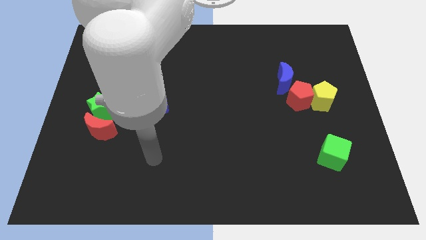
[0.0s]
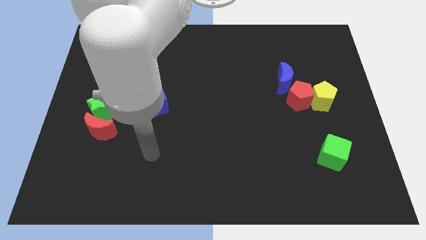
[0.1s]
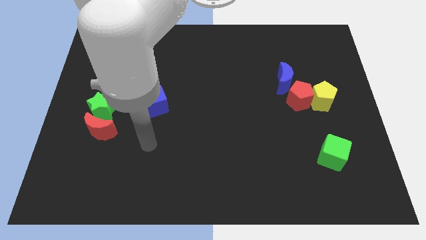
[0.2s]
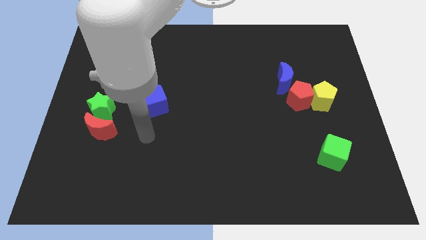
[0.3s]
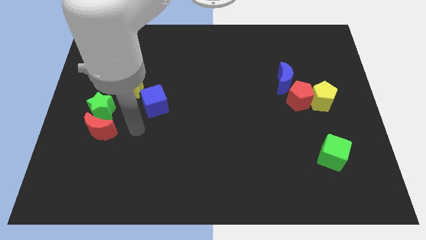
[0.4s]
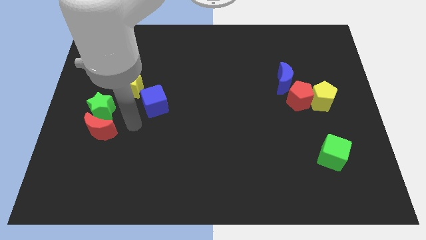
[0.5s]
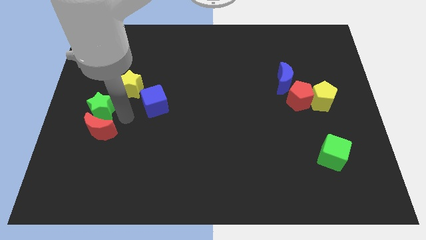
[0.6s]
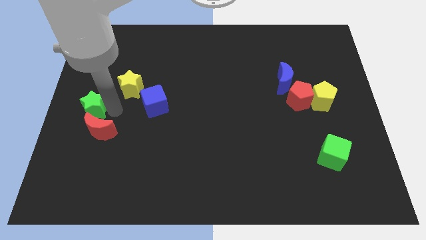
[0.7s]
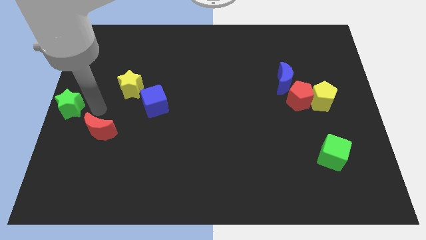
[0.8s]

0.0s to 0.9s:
pull the red moon apart from the green star

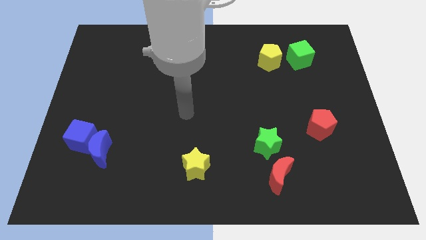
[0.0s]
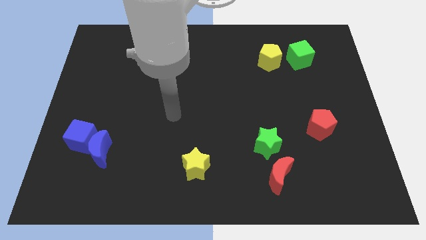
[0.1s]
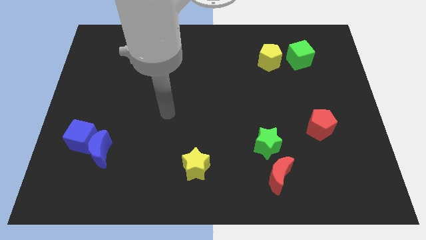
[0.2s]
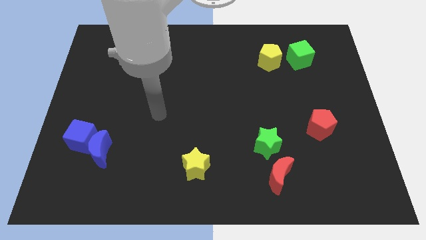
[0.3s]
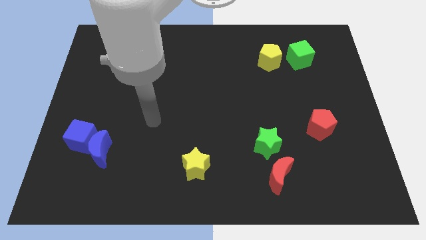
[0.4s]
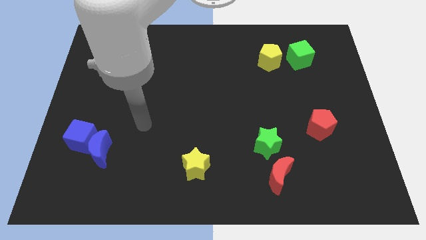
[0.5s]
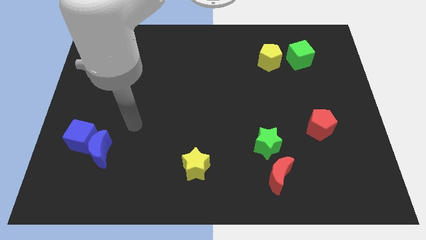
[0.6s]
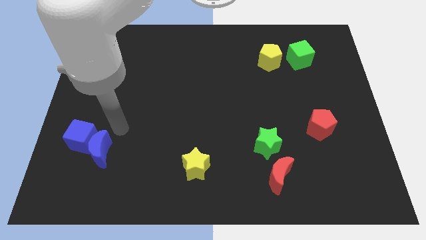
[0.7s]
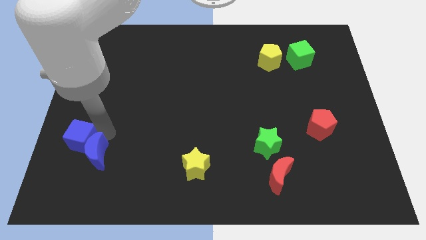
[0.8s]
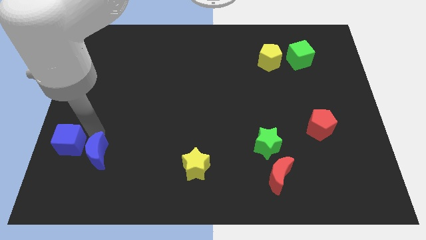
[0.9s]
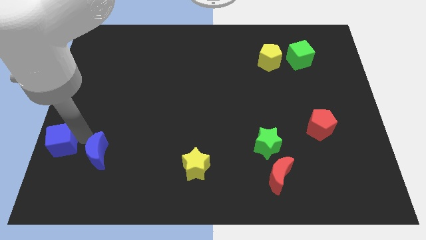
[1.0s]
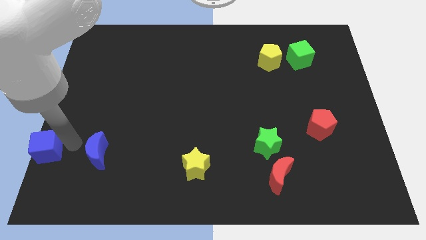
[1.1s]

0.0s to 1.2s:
separate the blue moon from the blue cube

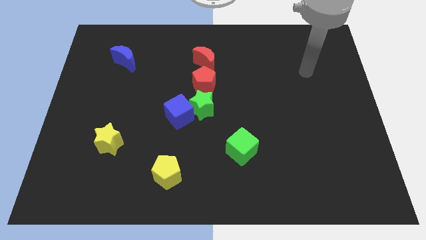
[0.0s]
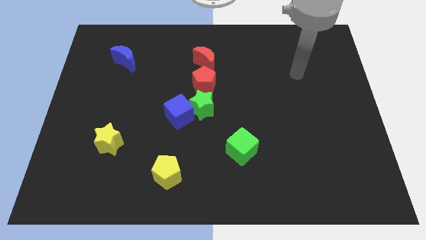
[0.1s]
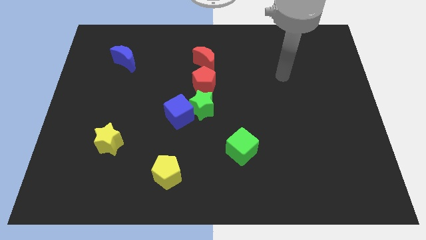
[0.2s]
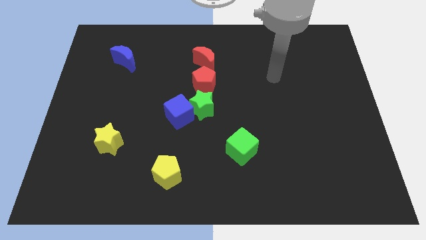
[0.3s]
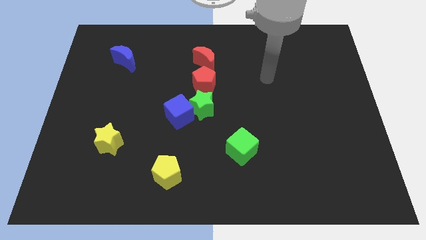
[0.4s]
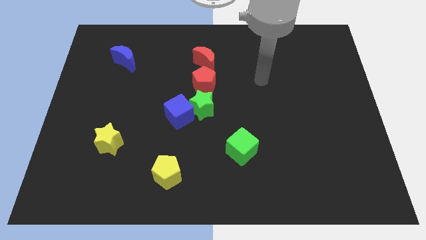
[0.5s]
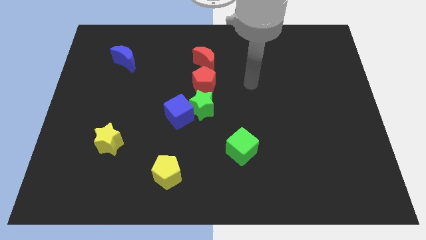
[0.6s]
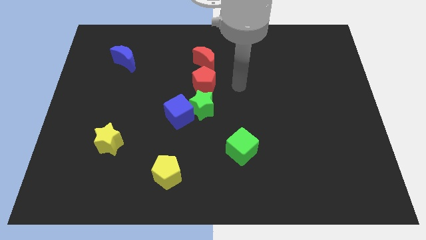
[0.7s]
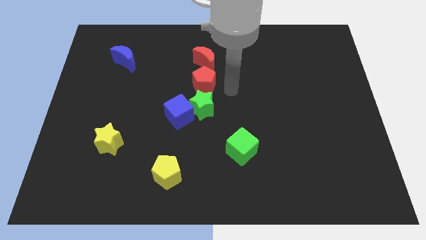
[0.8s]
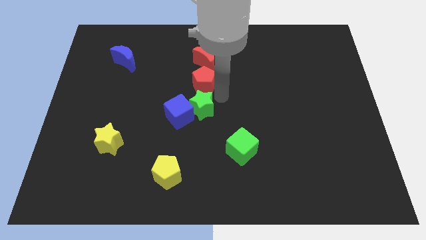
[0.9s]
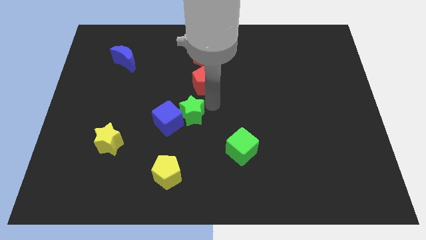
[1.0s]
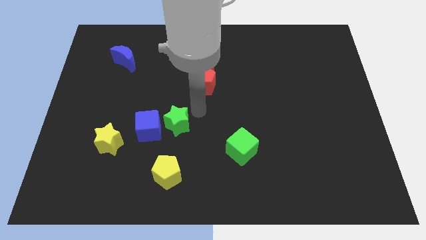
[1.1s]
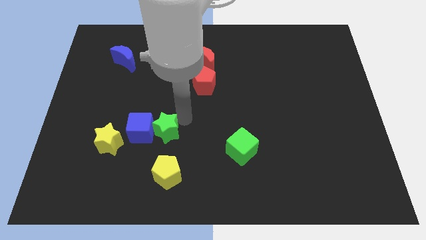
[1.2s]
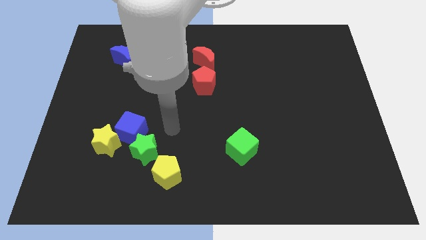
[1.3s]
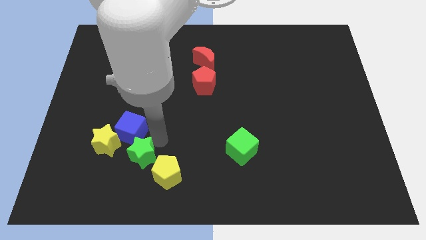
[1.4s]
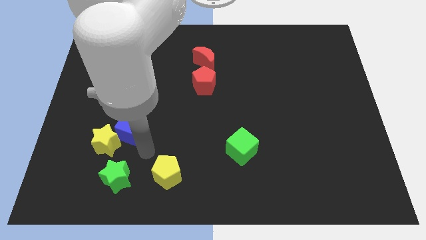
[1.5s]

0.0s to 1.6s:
pull the blue cube apart from the green star

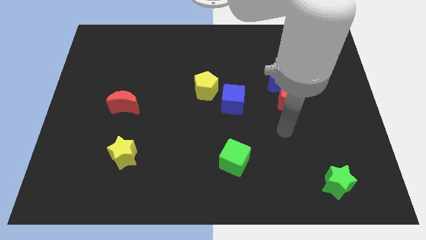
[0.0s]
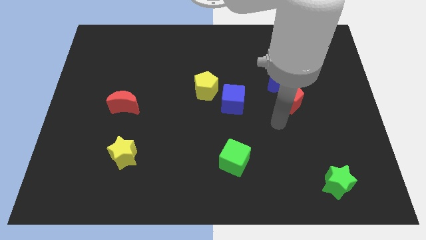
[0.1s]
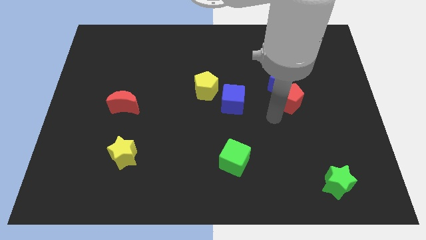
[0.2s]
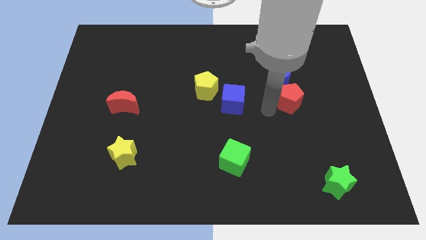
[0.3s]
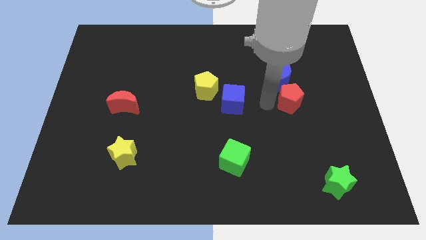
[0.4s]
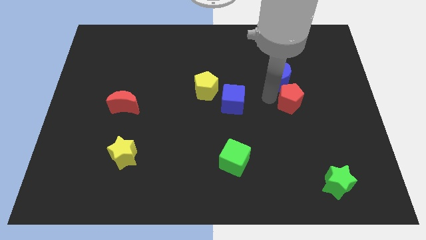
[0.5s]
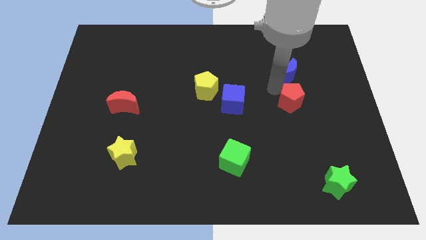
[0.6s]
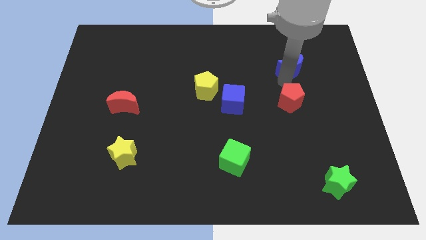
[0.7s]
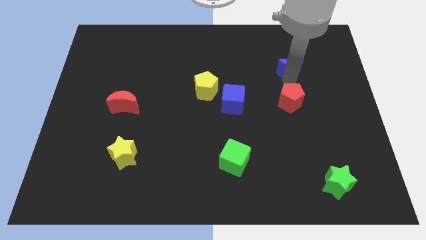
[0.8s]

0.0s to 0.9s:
separate the red pentagon from the blue moon

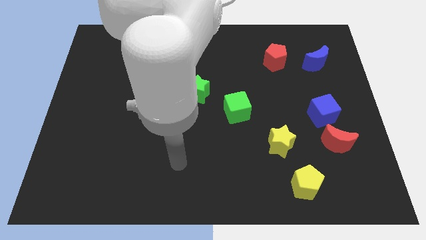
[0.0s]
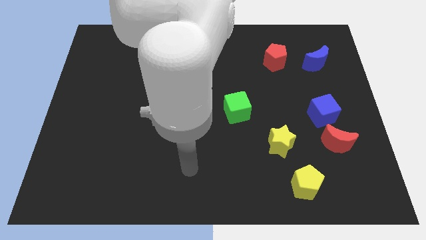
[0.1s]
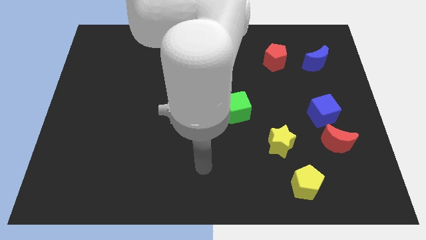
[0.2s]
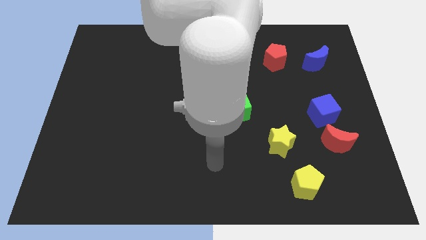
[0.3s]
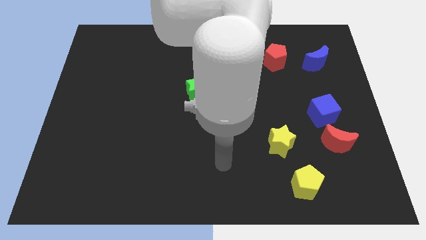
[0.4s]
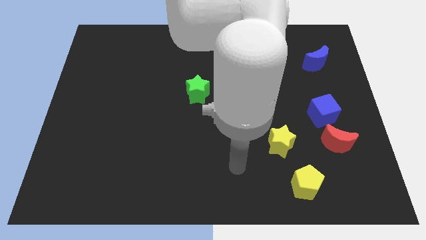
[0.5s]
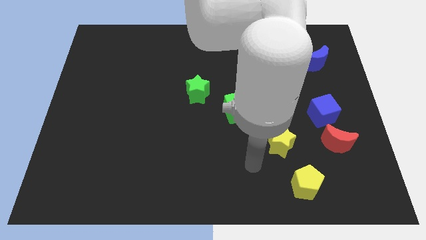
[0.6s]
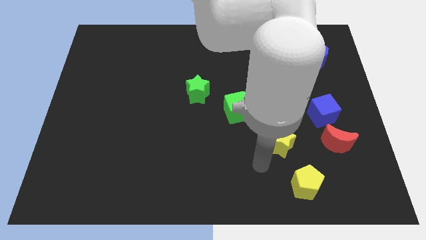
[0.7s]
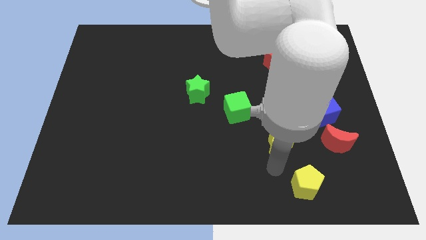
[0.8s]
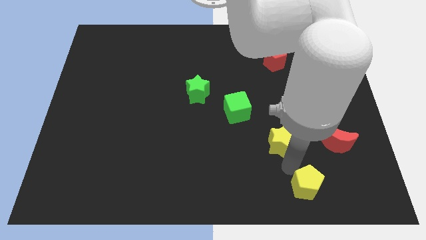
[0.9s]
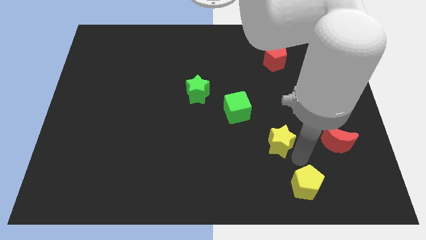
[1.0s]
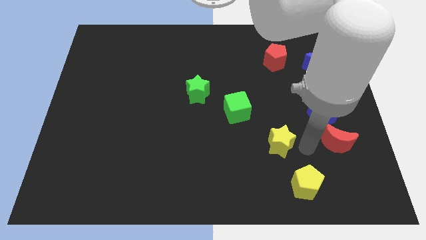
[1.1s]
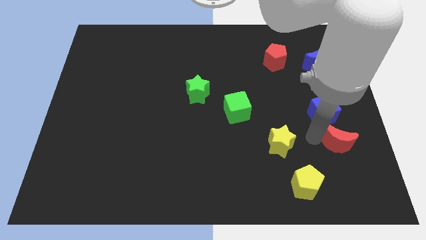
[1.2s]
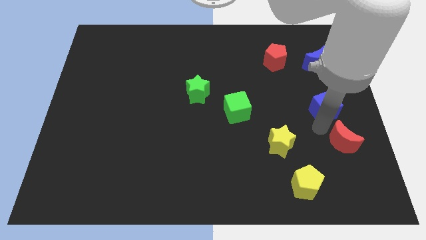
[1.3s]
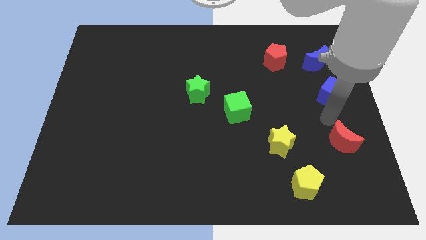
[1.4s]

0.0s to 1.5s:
separate the red moon from the blue cube

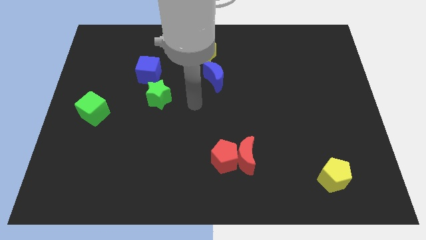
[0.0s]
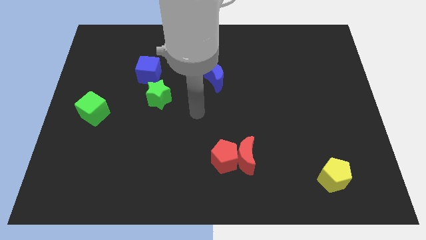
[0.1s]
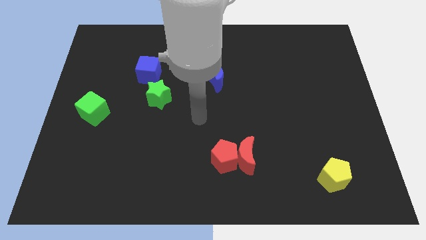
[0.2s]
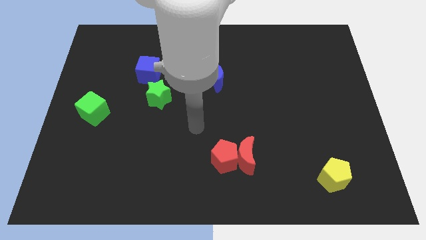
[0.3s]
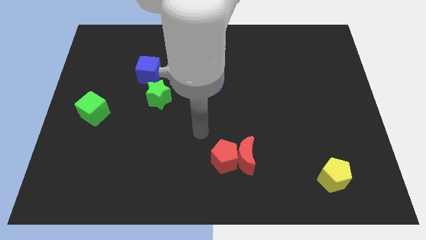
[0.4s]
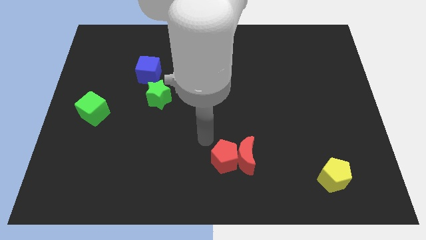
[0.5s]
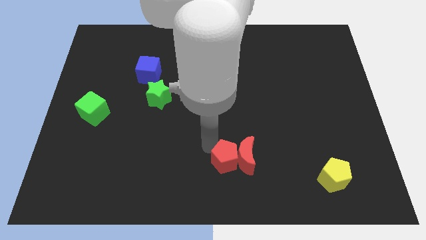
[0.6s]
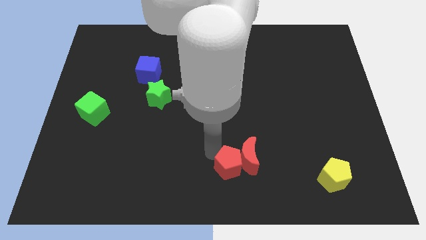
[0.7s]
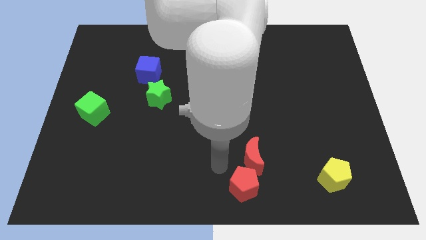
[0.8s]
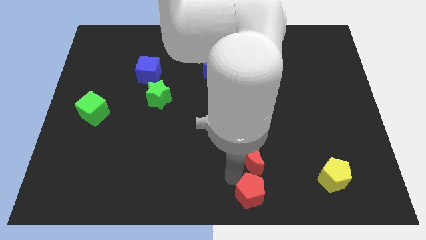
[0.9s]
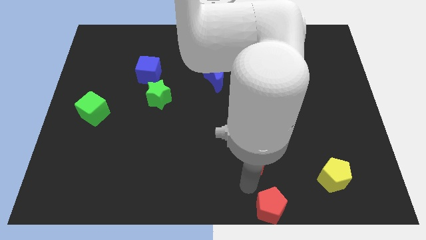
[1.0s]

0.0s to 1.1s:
separate the red moon from the red pentagon

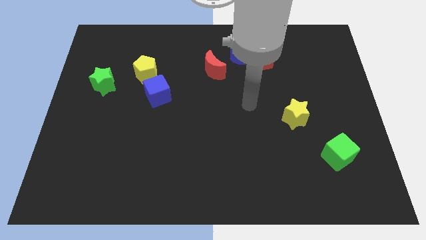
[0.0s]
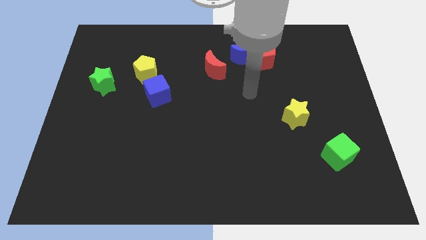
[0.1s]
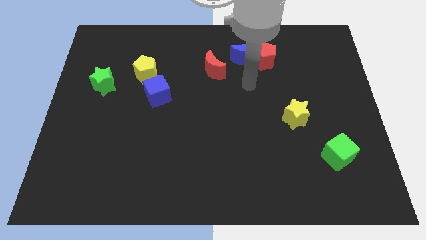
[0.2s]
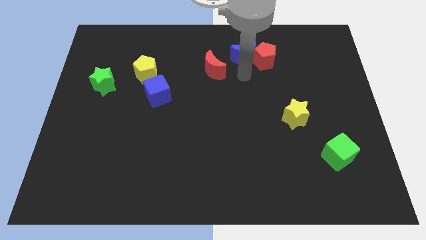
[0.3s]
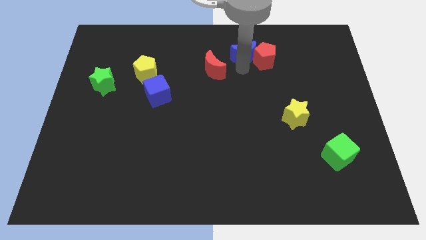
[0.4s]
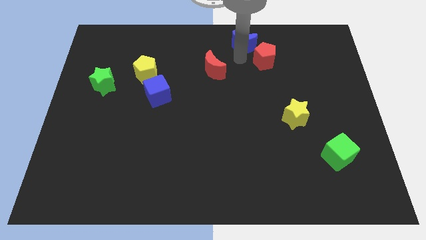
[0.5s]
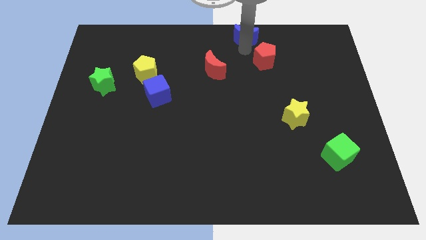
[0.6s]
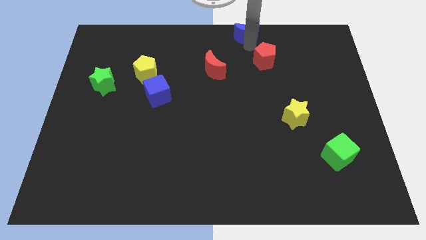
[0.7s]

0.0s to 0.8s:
pull the red pentagon apart from the blue moon

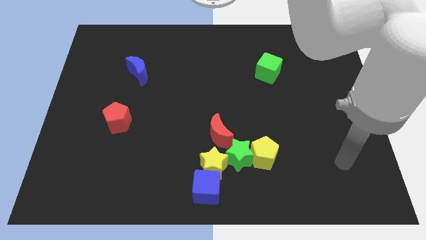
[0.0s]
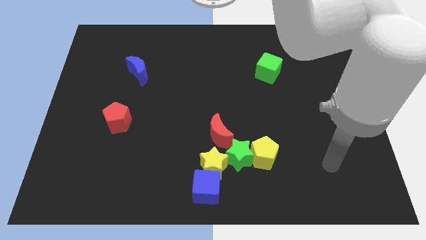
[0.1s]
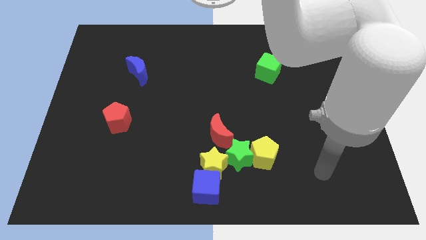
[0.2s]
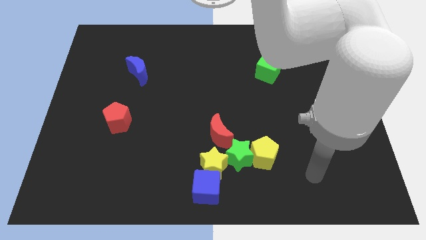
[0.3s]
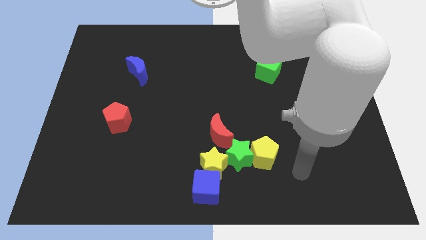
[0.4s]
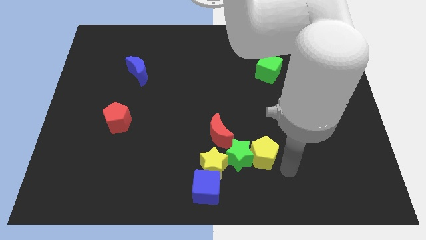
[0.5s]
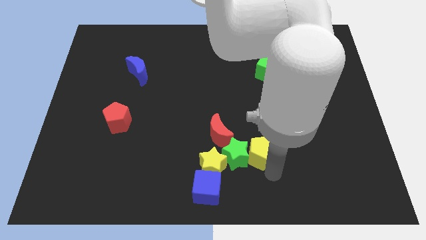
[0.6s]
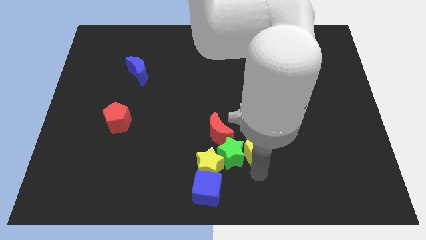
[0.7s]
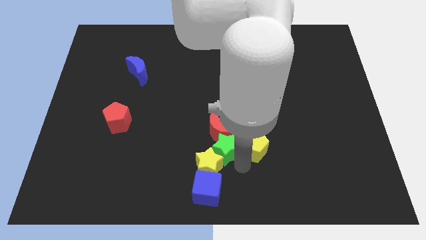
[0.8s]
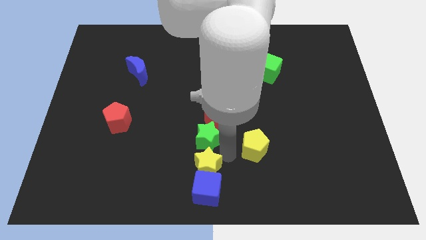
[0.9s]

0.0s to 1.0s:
separate the yellow pentagon from the green star

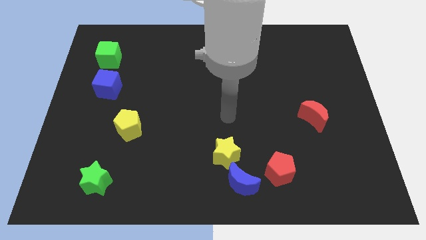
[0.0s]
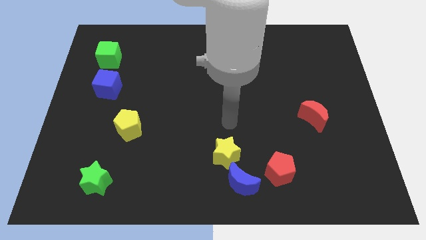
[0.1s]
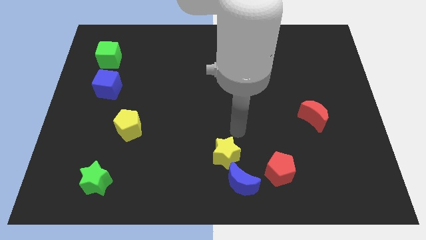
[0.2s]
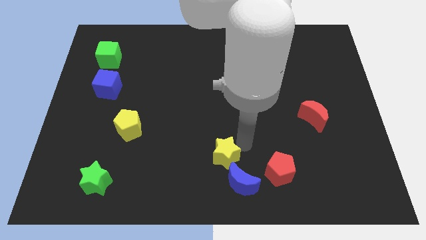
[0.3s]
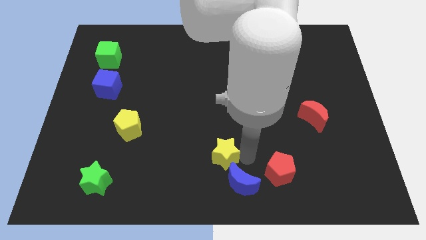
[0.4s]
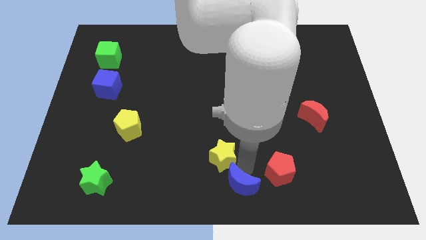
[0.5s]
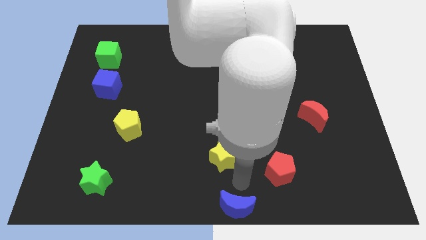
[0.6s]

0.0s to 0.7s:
pull the yellow star apart from the blue moon
